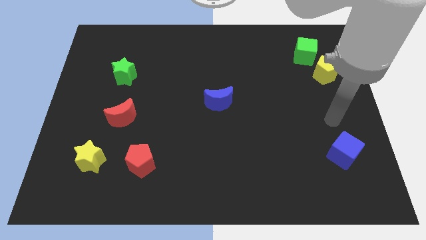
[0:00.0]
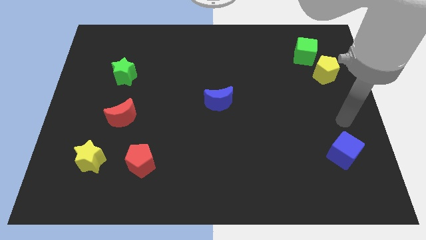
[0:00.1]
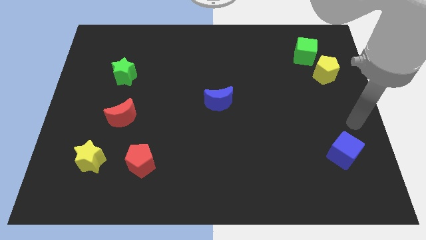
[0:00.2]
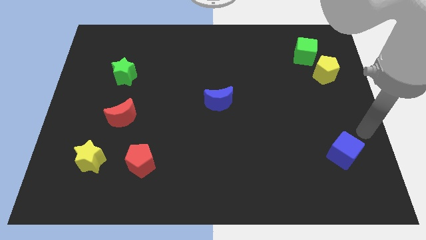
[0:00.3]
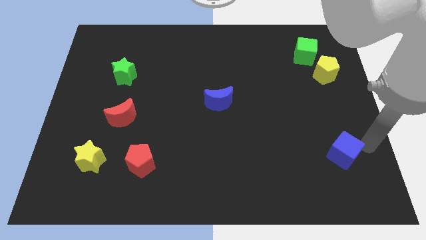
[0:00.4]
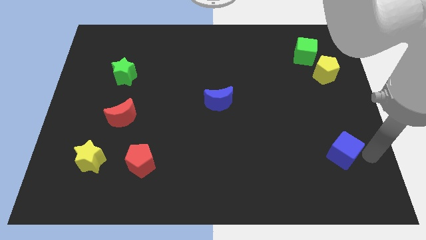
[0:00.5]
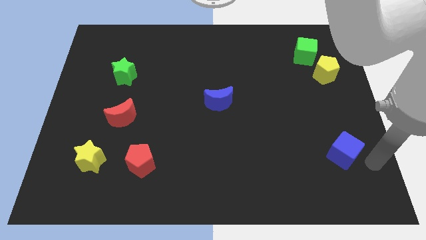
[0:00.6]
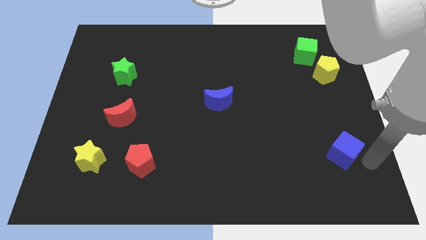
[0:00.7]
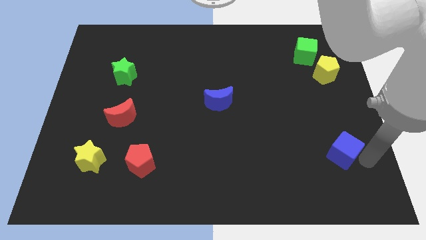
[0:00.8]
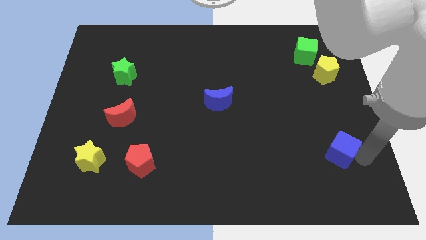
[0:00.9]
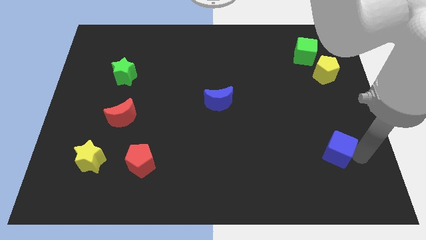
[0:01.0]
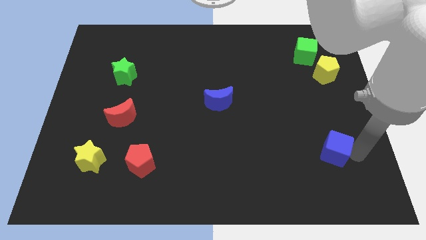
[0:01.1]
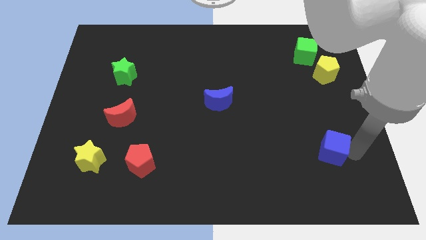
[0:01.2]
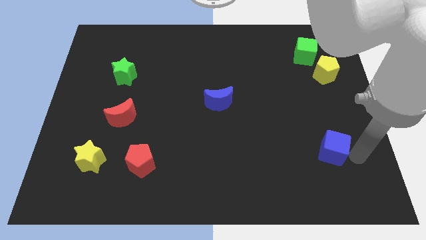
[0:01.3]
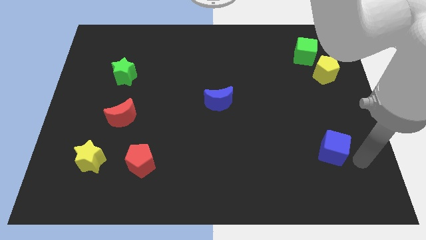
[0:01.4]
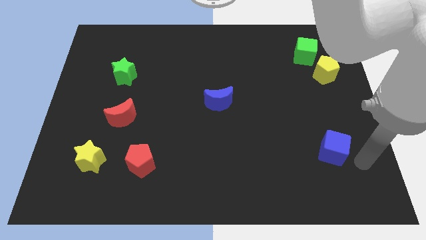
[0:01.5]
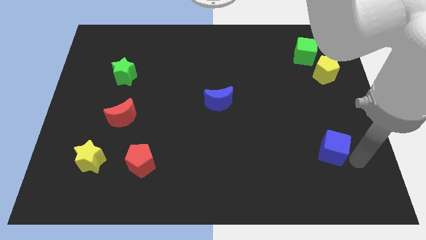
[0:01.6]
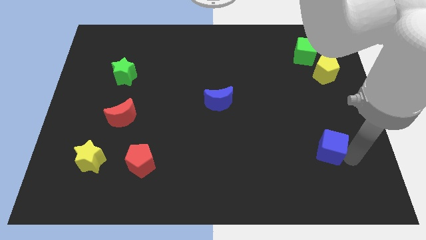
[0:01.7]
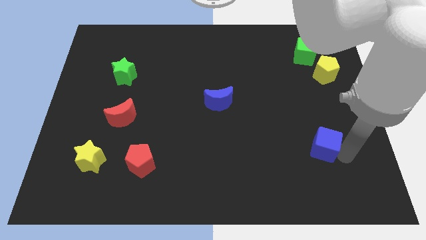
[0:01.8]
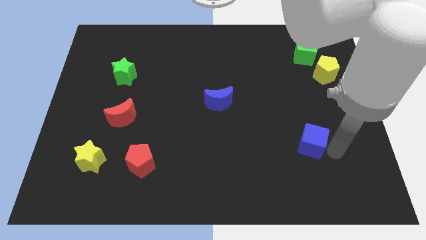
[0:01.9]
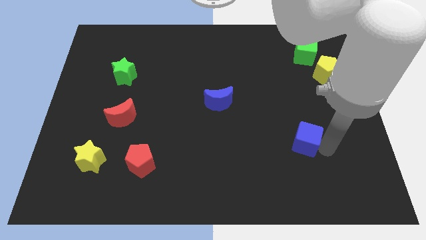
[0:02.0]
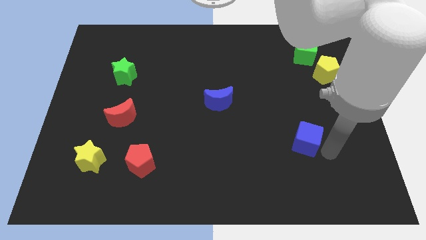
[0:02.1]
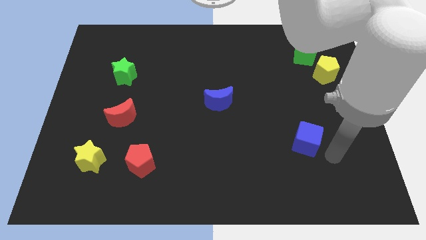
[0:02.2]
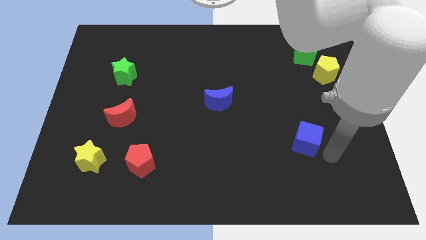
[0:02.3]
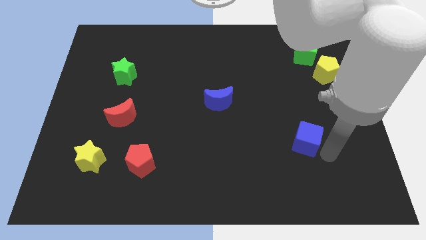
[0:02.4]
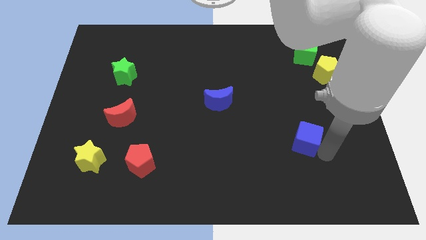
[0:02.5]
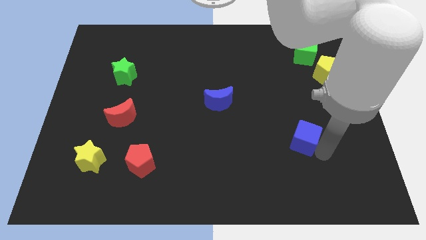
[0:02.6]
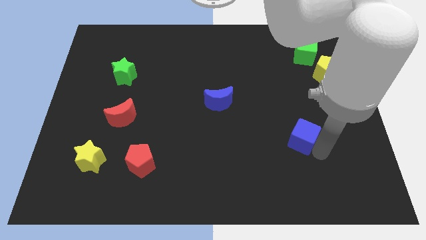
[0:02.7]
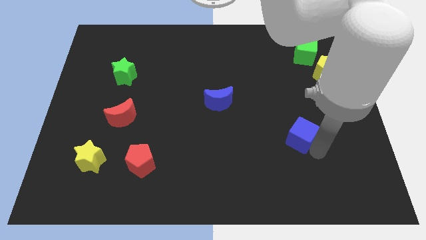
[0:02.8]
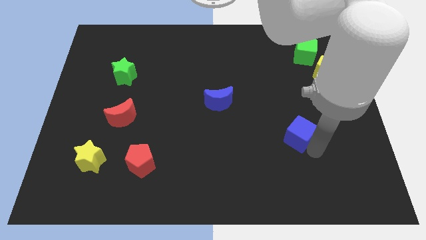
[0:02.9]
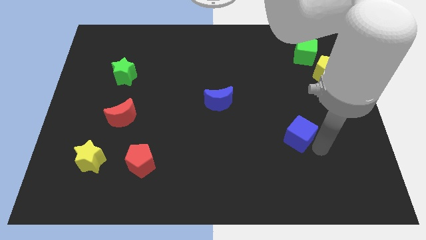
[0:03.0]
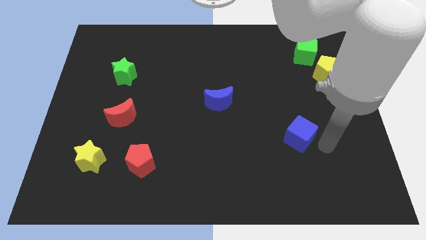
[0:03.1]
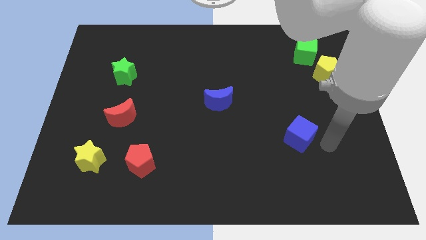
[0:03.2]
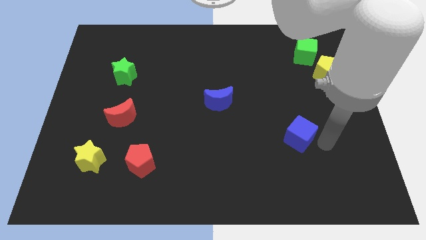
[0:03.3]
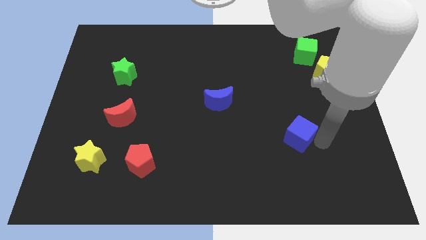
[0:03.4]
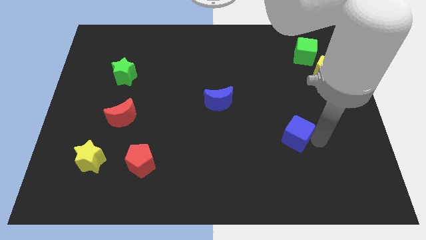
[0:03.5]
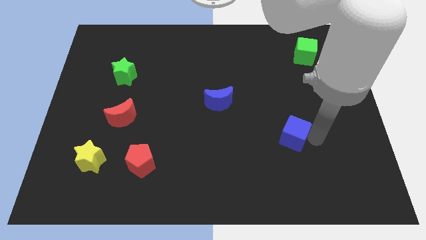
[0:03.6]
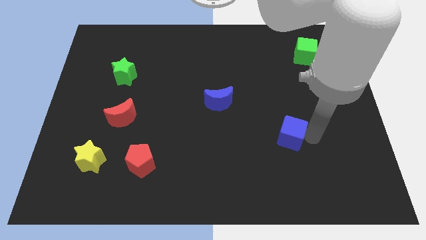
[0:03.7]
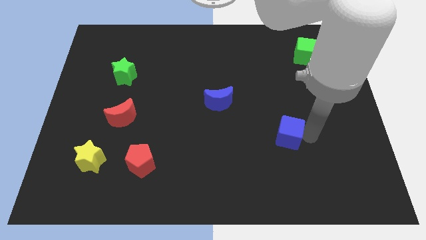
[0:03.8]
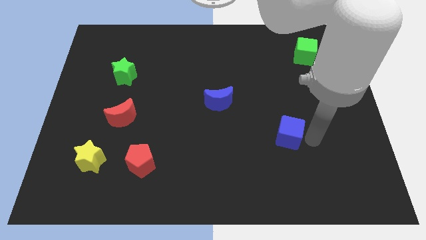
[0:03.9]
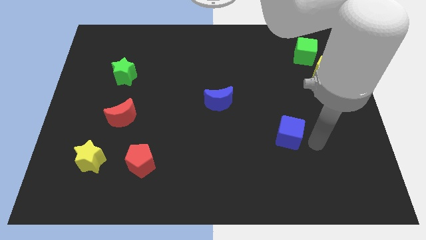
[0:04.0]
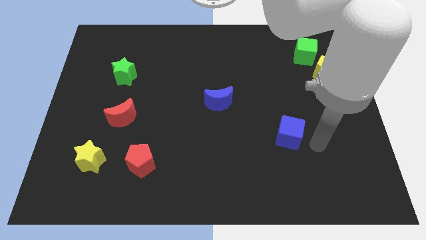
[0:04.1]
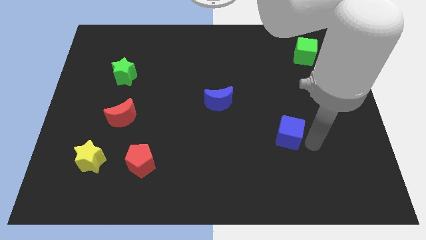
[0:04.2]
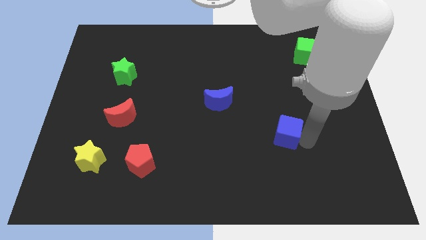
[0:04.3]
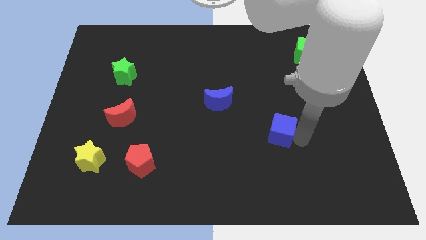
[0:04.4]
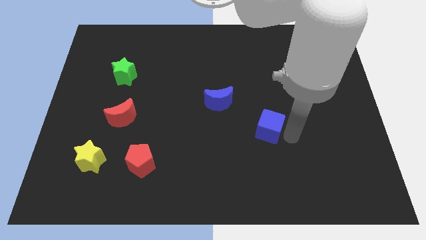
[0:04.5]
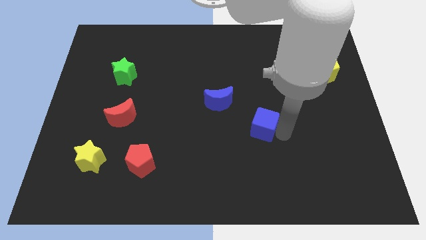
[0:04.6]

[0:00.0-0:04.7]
slide the blue cube to the bottom right of the blue moon

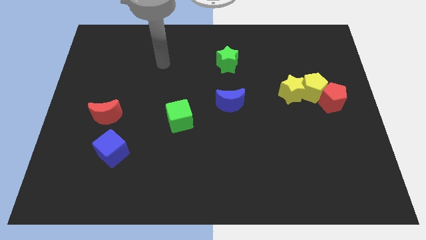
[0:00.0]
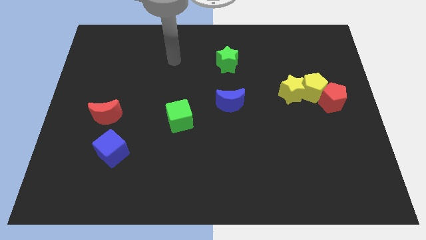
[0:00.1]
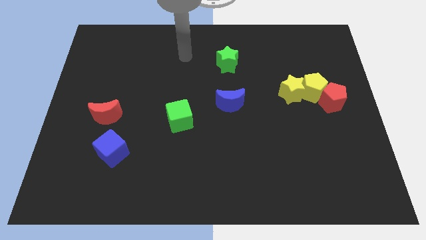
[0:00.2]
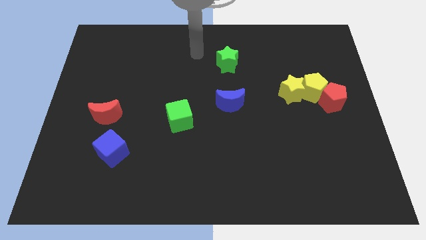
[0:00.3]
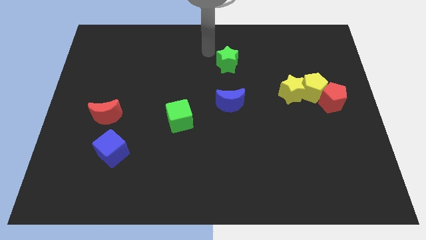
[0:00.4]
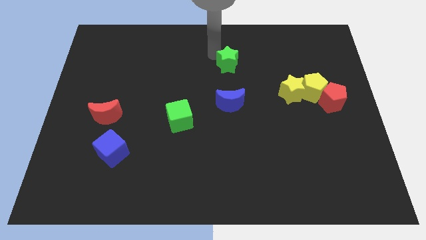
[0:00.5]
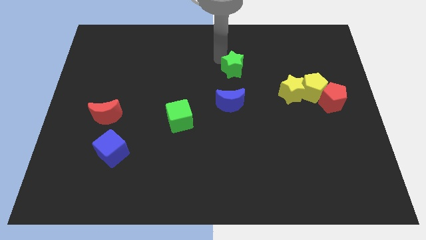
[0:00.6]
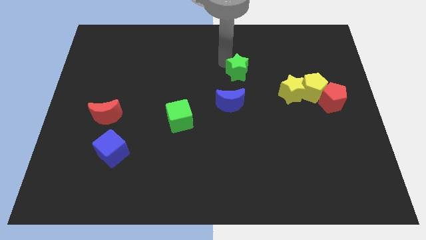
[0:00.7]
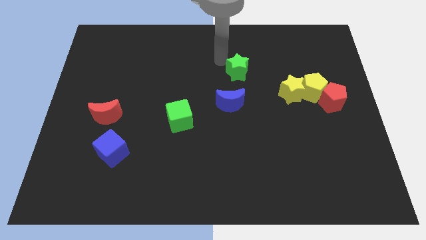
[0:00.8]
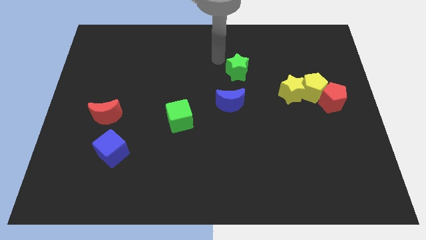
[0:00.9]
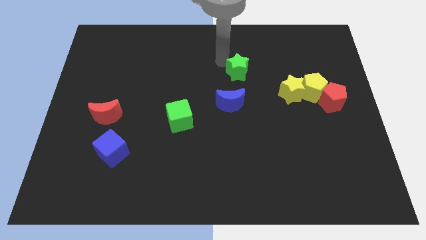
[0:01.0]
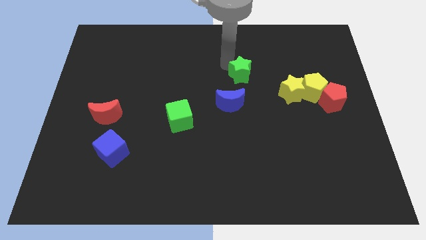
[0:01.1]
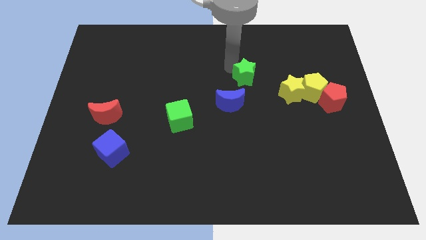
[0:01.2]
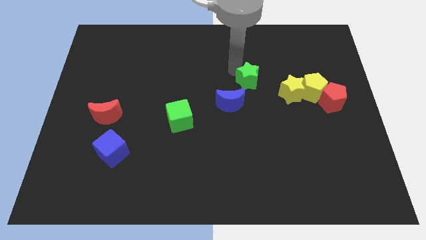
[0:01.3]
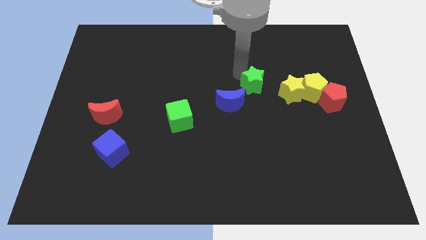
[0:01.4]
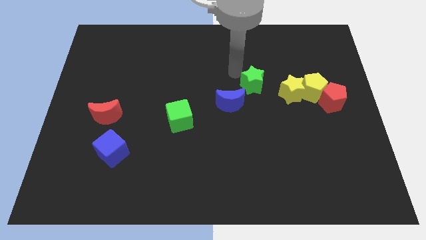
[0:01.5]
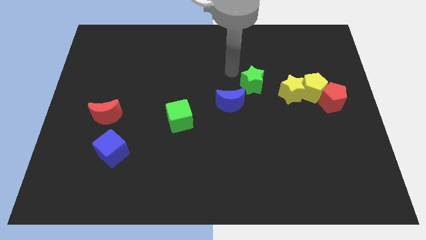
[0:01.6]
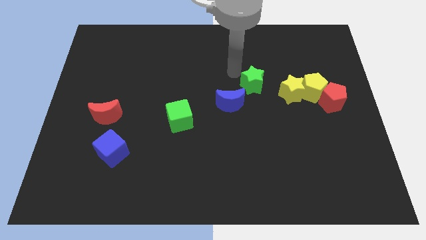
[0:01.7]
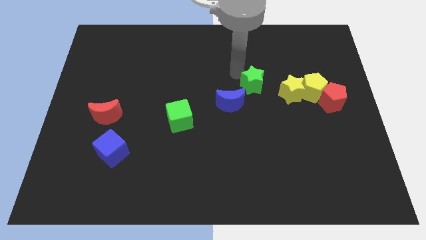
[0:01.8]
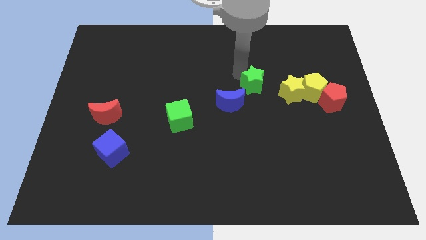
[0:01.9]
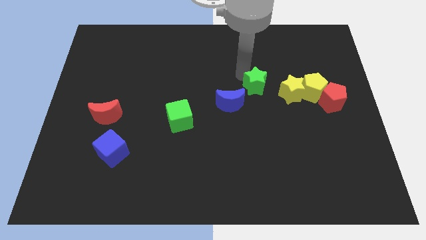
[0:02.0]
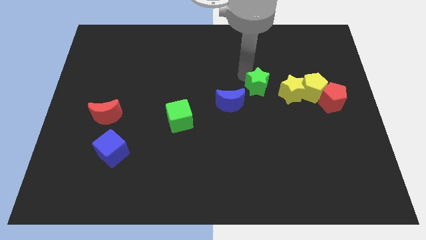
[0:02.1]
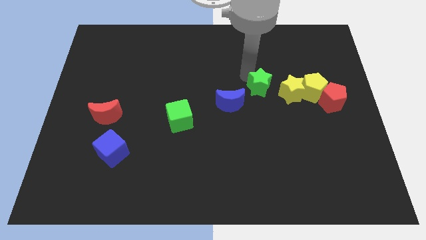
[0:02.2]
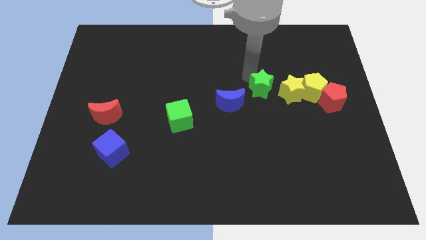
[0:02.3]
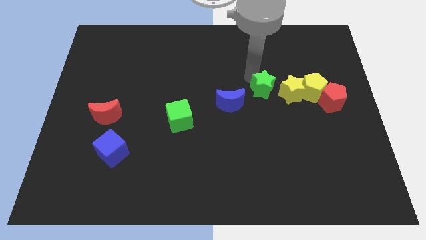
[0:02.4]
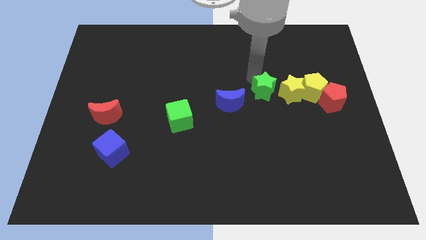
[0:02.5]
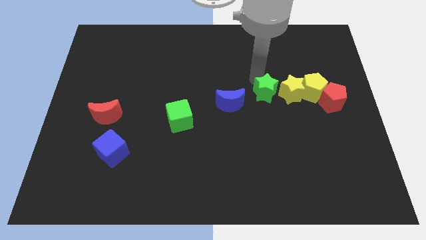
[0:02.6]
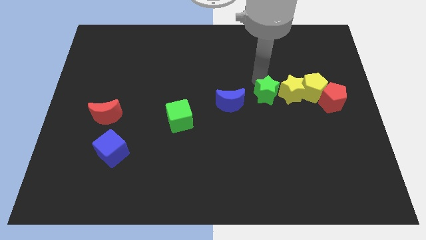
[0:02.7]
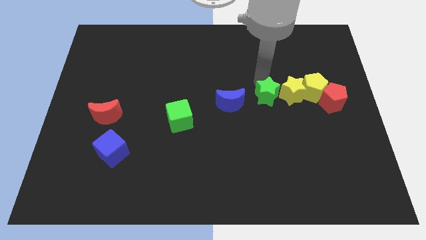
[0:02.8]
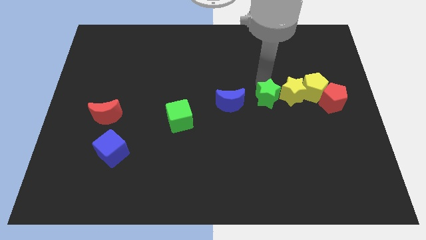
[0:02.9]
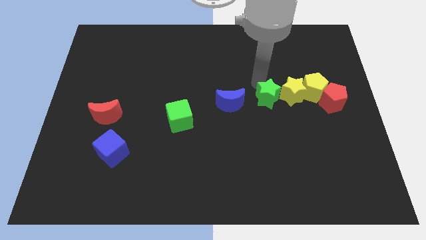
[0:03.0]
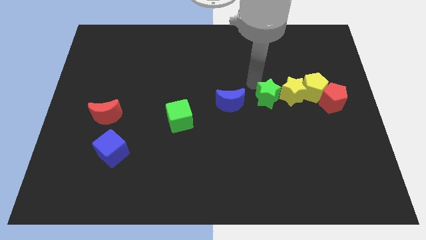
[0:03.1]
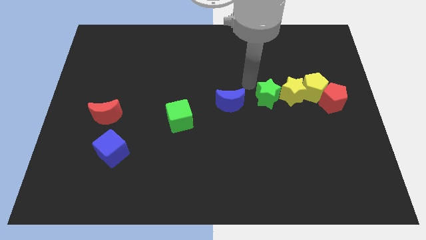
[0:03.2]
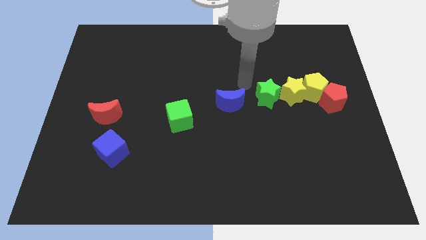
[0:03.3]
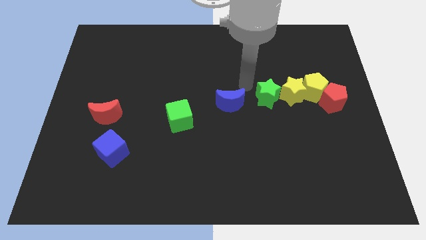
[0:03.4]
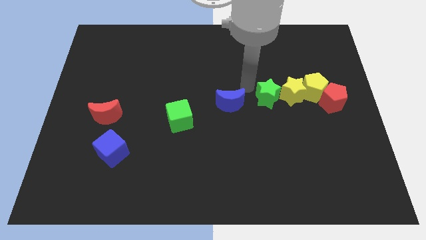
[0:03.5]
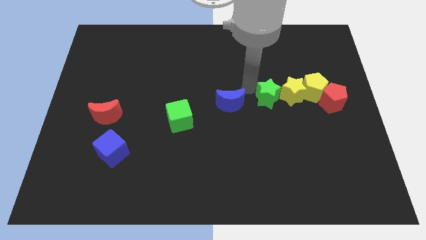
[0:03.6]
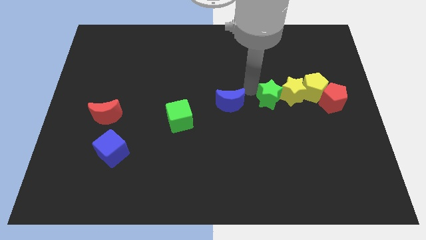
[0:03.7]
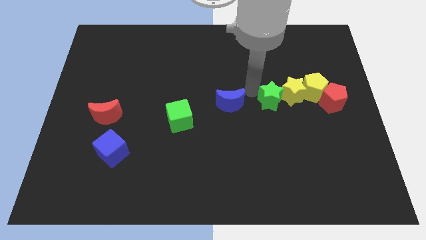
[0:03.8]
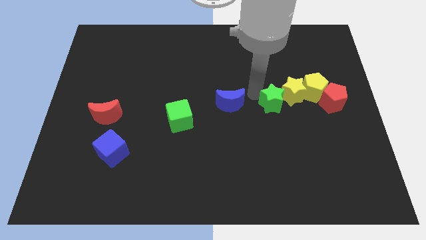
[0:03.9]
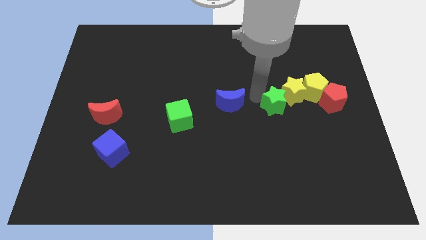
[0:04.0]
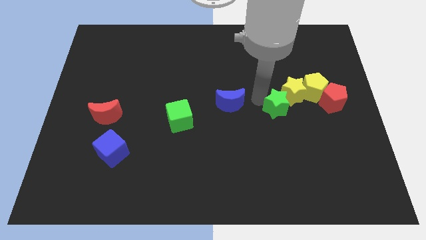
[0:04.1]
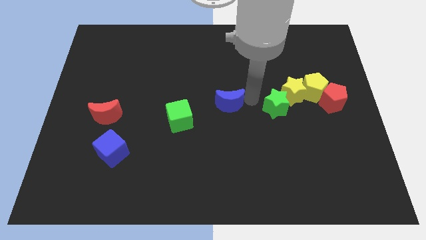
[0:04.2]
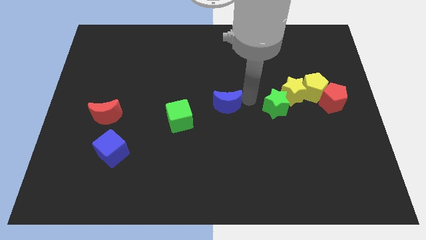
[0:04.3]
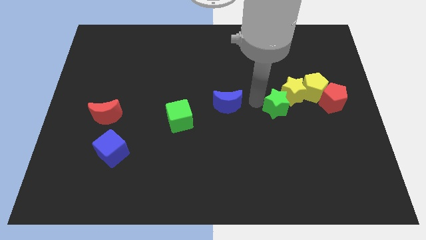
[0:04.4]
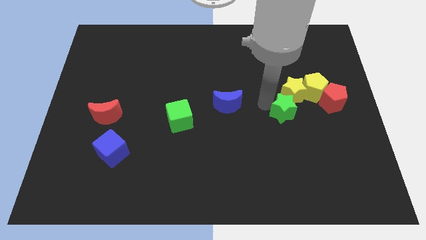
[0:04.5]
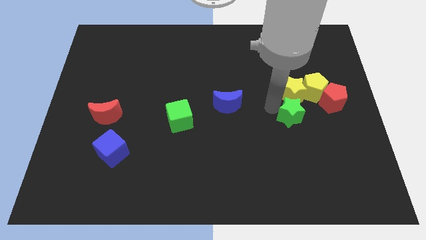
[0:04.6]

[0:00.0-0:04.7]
put the green star diagonally down and to the left of the red pentagon
